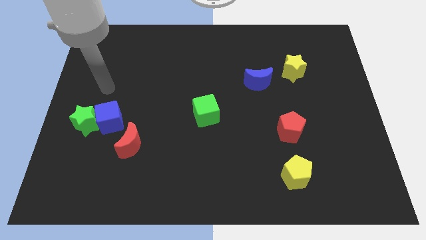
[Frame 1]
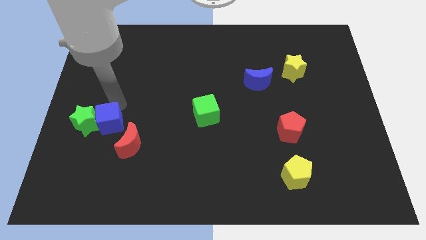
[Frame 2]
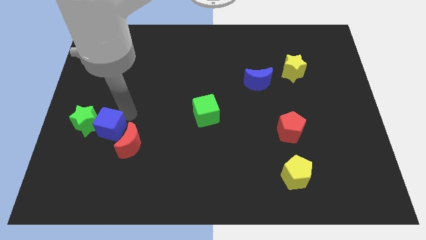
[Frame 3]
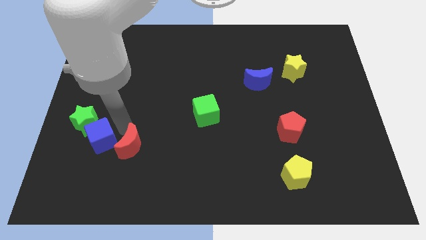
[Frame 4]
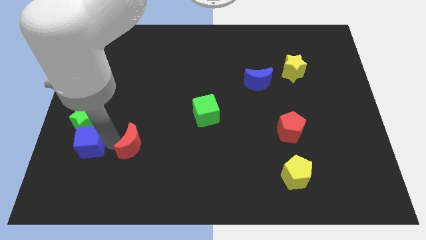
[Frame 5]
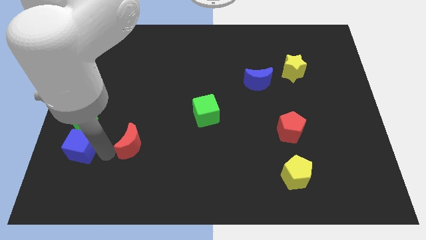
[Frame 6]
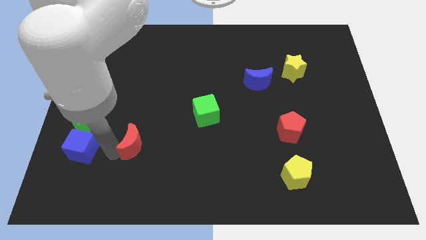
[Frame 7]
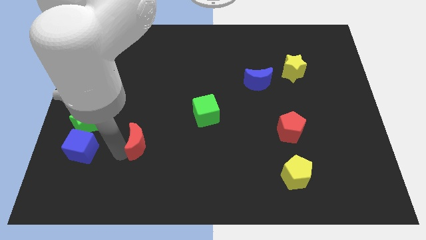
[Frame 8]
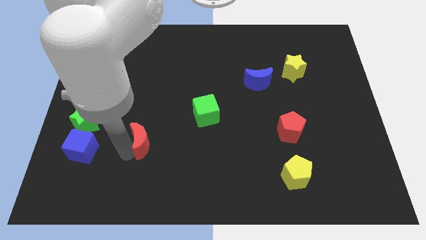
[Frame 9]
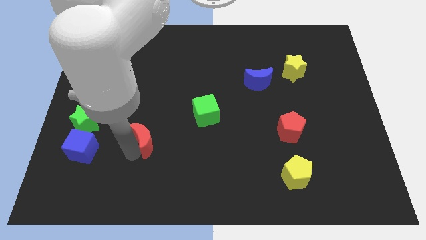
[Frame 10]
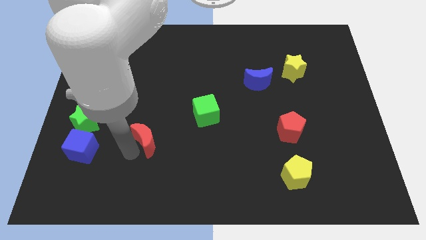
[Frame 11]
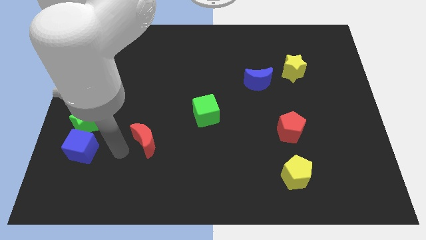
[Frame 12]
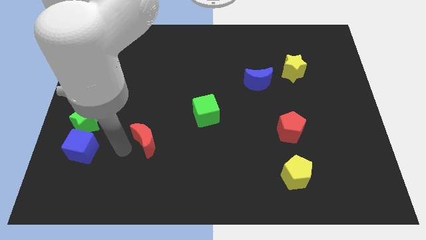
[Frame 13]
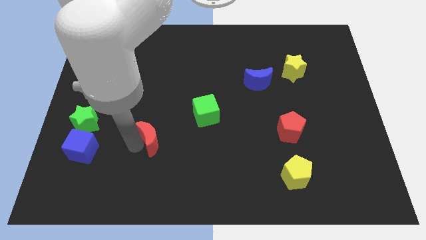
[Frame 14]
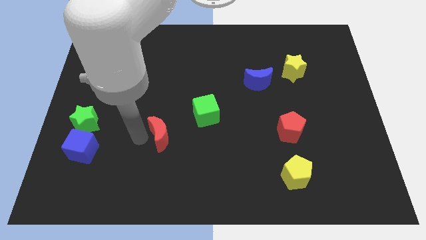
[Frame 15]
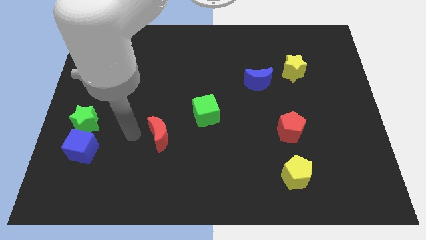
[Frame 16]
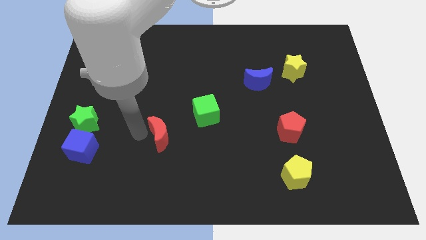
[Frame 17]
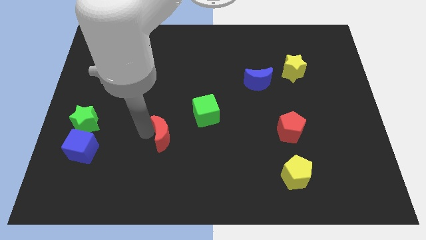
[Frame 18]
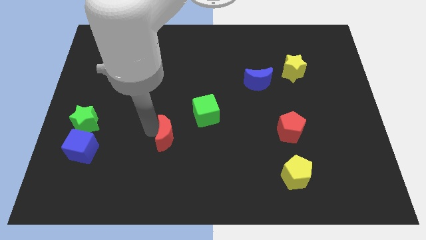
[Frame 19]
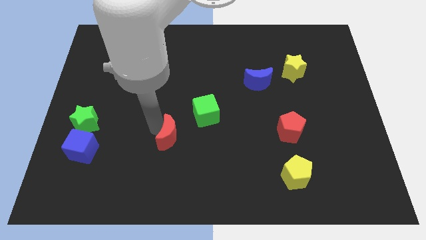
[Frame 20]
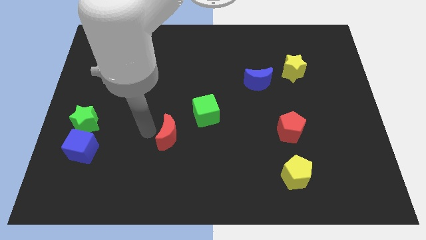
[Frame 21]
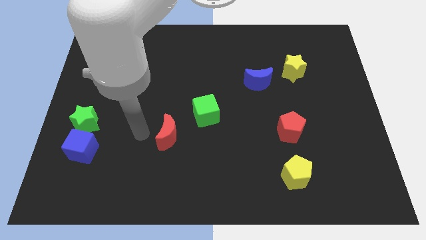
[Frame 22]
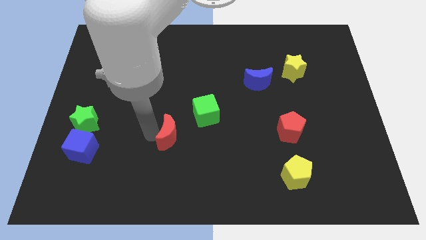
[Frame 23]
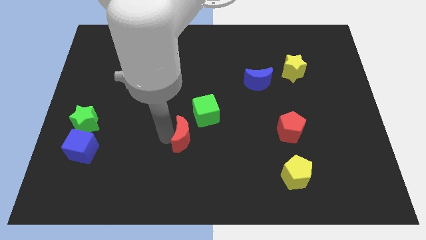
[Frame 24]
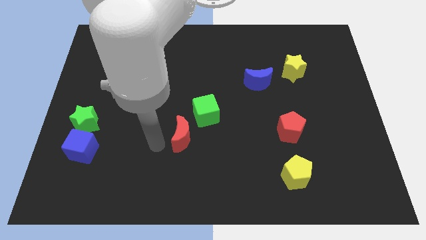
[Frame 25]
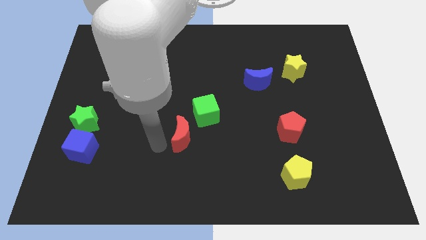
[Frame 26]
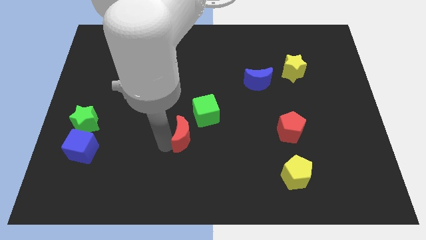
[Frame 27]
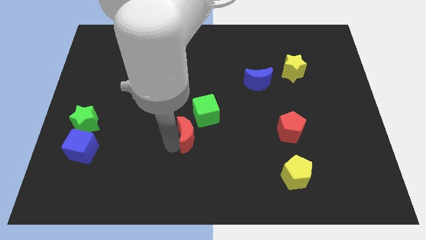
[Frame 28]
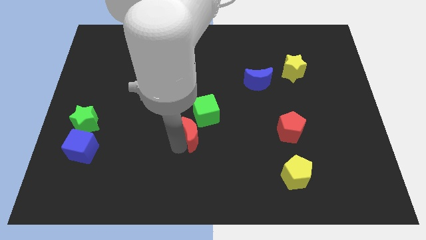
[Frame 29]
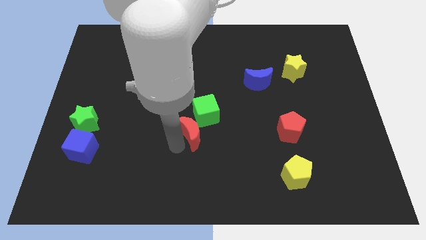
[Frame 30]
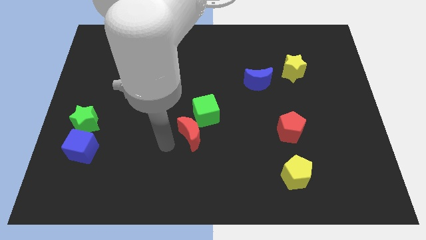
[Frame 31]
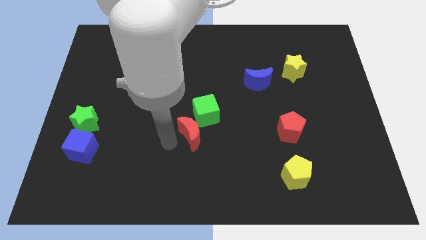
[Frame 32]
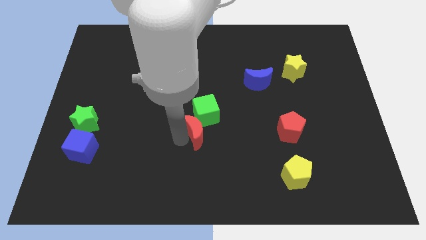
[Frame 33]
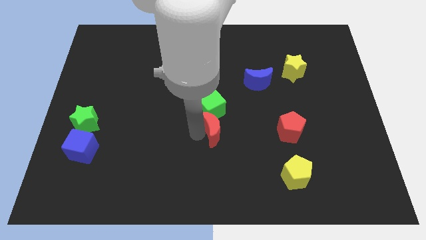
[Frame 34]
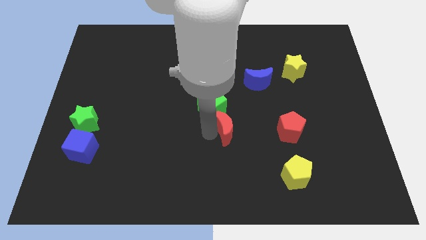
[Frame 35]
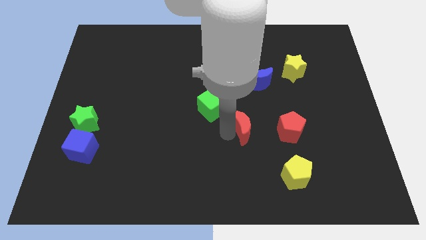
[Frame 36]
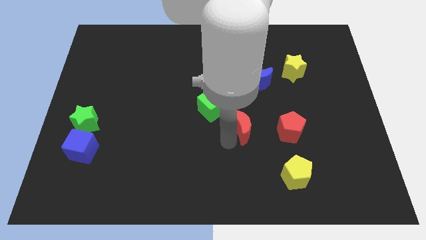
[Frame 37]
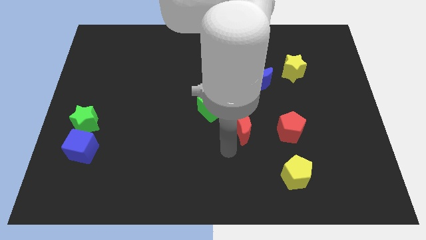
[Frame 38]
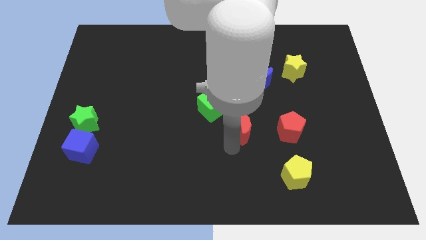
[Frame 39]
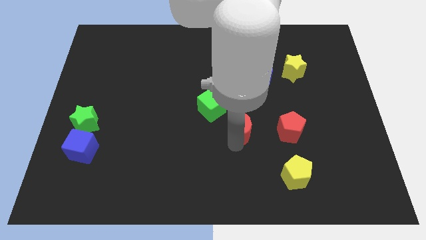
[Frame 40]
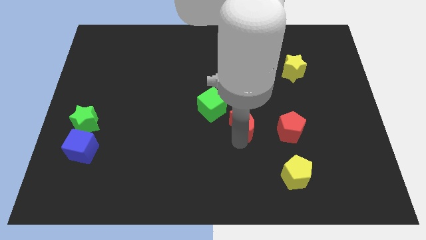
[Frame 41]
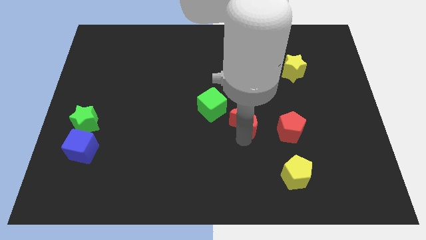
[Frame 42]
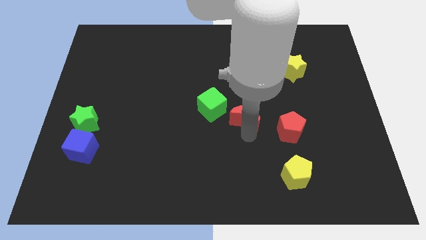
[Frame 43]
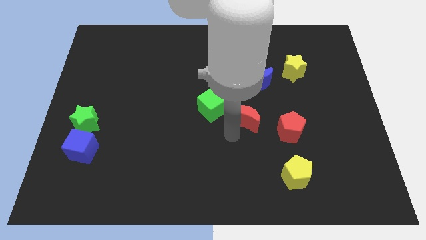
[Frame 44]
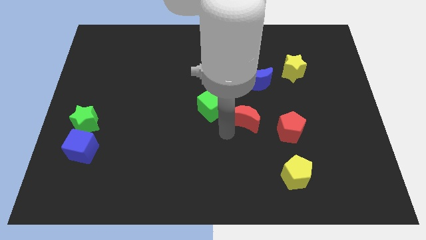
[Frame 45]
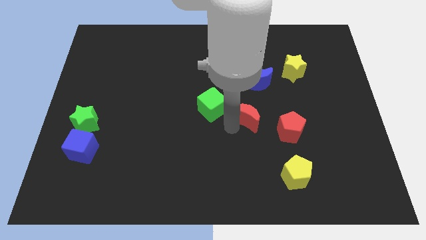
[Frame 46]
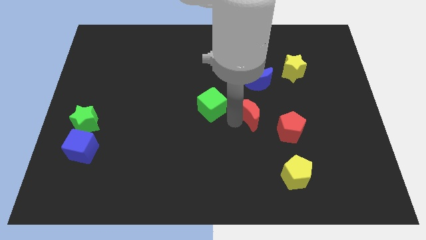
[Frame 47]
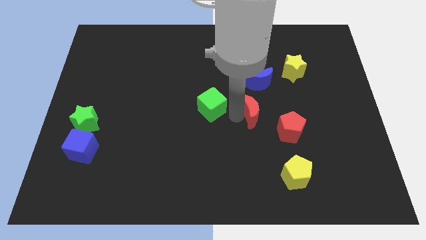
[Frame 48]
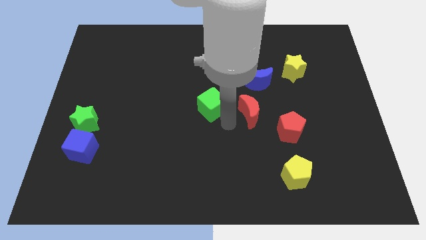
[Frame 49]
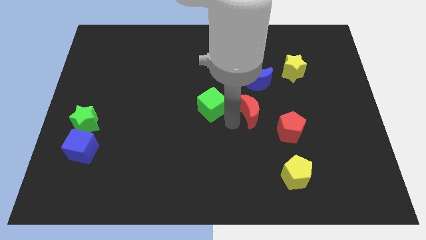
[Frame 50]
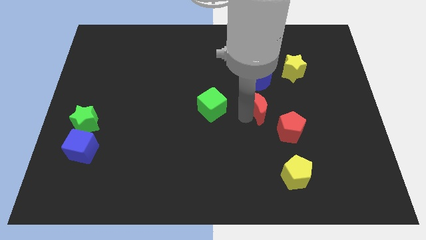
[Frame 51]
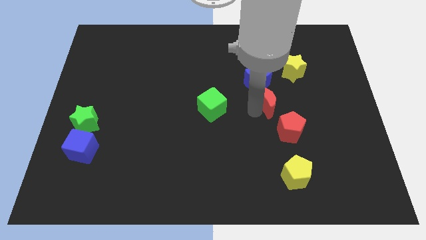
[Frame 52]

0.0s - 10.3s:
push the red moon to the top side of the red pentagon

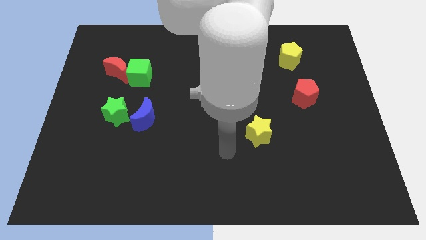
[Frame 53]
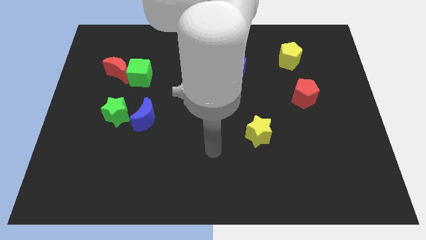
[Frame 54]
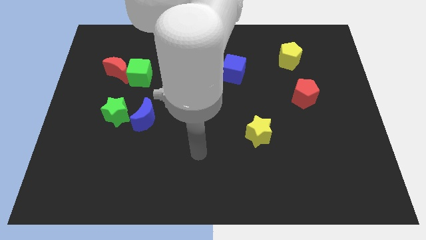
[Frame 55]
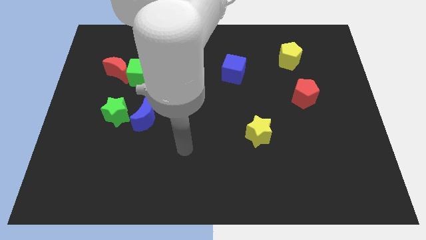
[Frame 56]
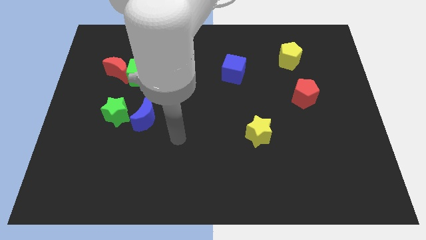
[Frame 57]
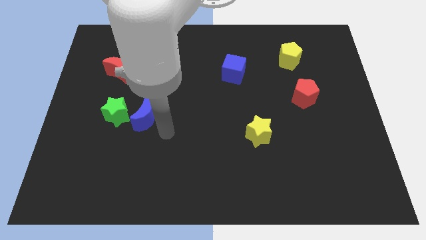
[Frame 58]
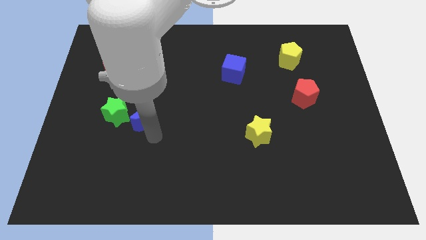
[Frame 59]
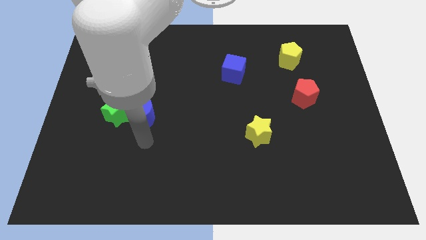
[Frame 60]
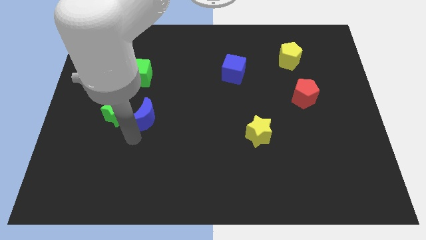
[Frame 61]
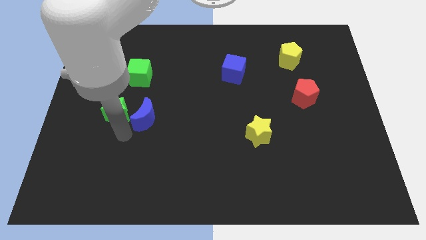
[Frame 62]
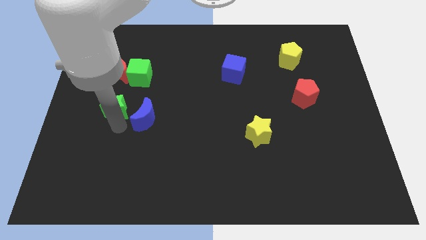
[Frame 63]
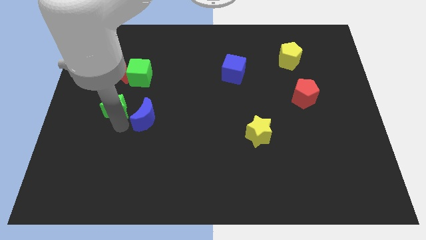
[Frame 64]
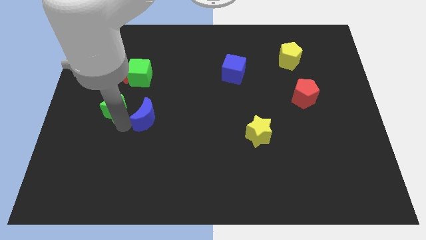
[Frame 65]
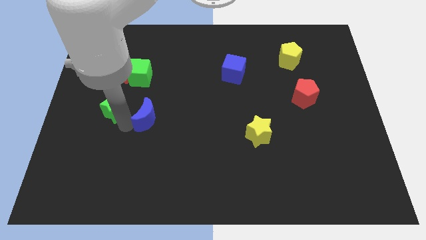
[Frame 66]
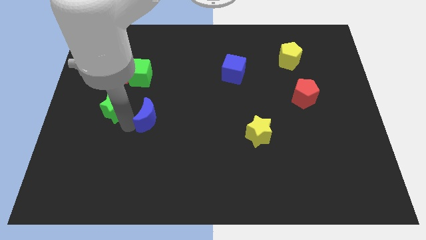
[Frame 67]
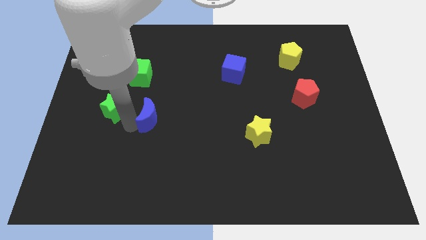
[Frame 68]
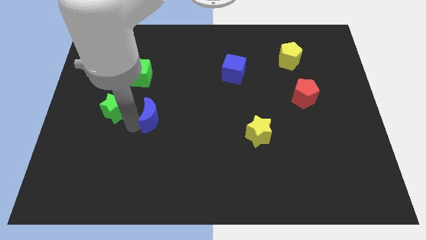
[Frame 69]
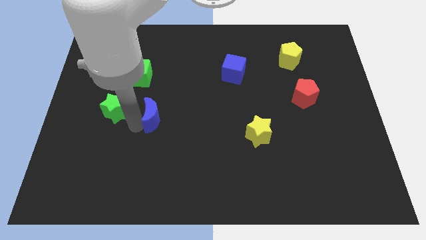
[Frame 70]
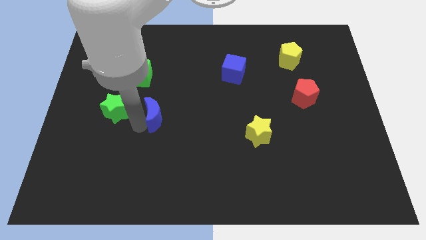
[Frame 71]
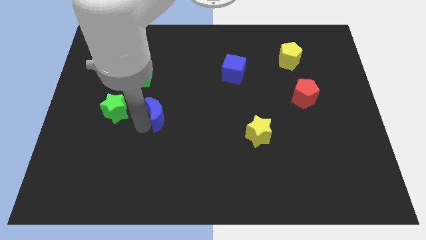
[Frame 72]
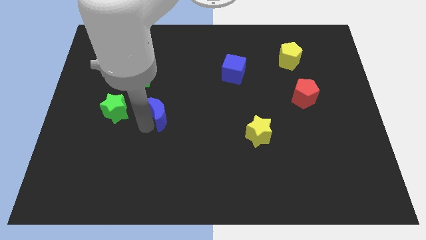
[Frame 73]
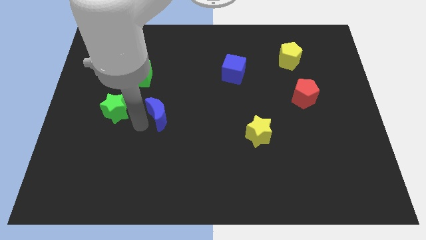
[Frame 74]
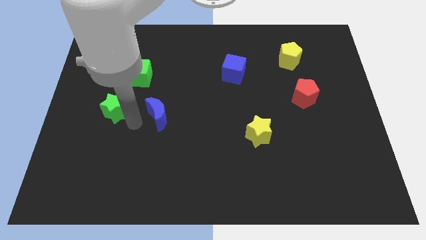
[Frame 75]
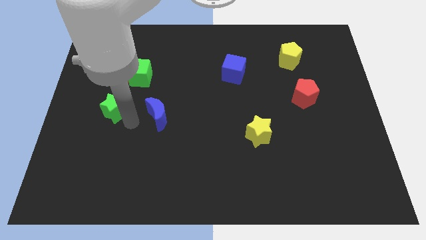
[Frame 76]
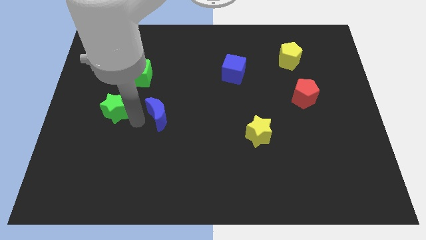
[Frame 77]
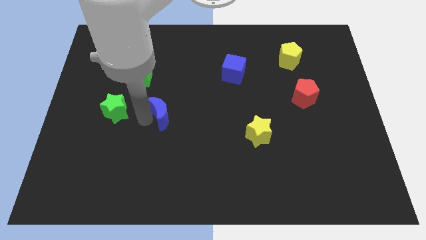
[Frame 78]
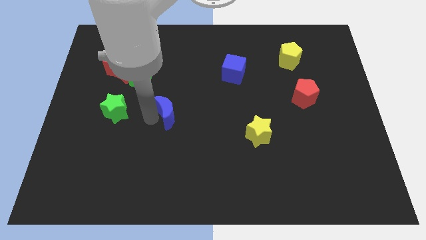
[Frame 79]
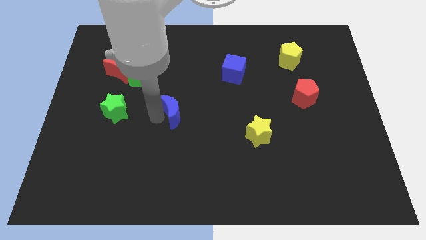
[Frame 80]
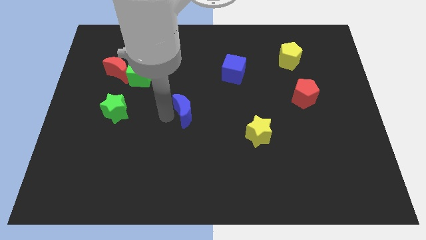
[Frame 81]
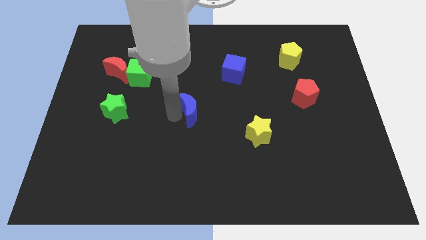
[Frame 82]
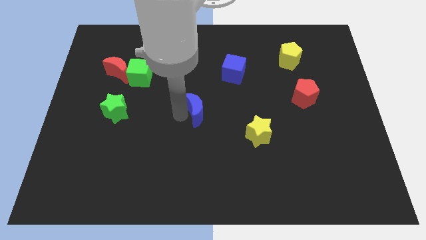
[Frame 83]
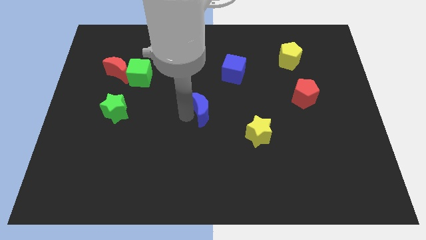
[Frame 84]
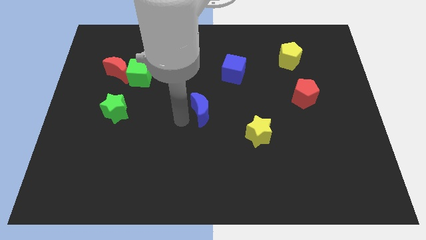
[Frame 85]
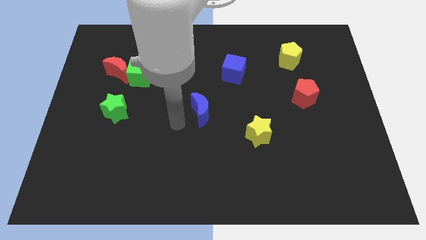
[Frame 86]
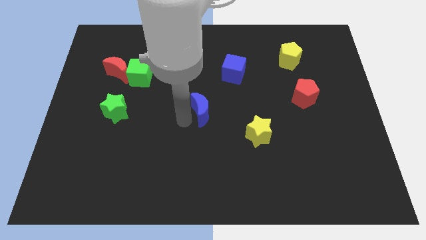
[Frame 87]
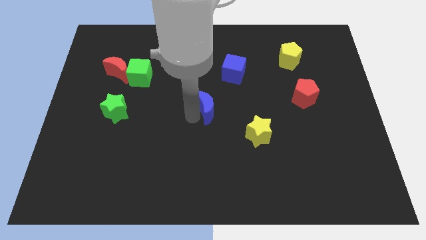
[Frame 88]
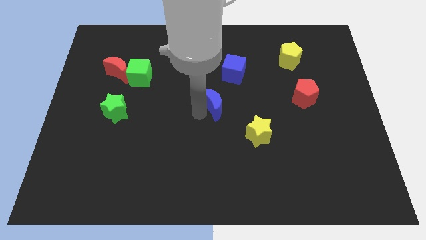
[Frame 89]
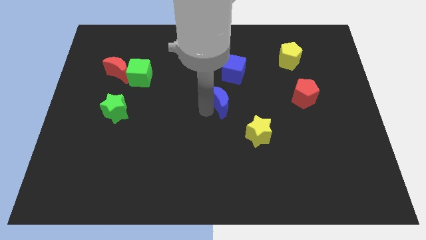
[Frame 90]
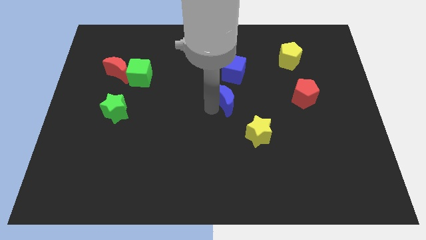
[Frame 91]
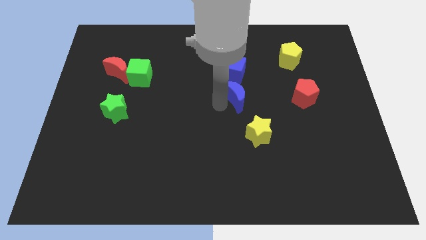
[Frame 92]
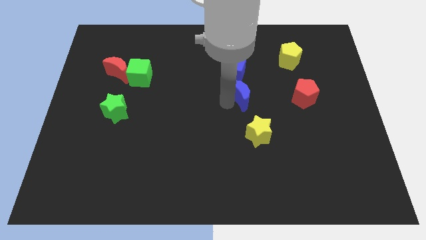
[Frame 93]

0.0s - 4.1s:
move the blue moon to the bottom right side of the blue cube
